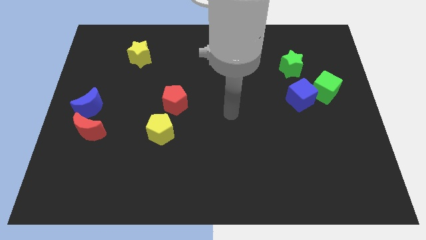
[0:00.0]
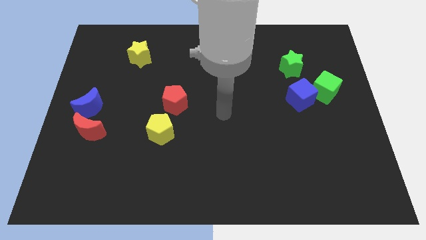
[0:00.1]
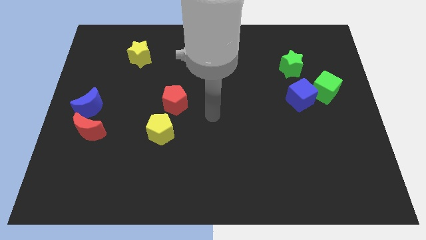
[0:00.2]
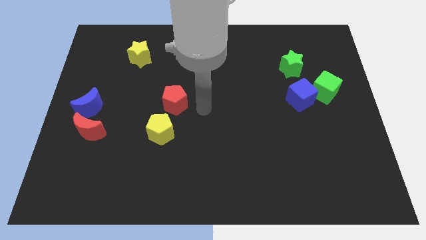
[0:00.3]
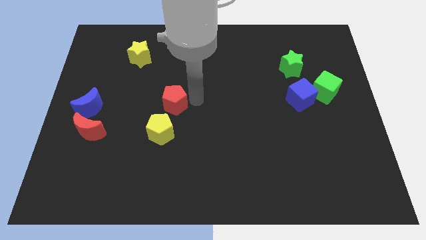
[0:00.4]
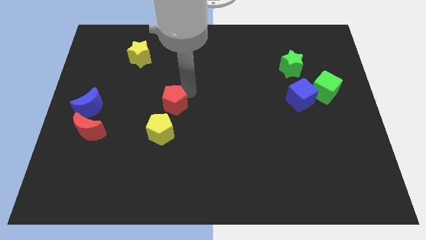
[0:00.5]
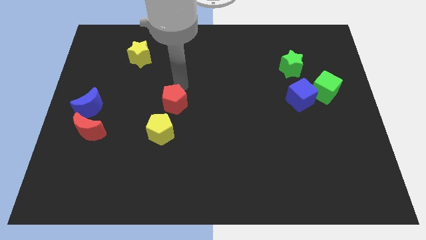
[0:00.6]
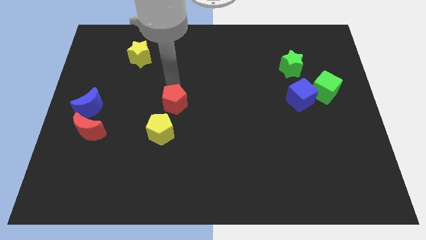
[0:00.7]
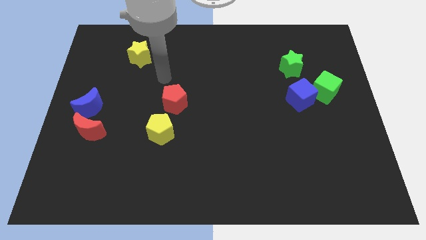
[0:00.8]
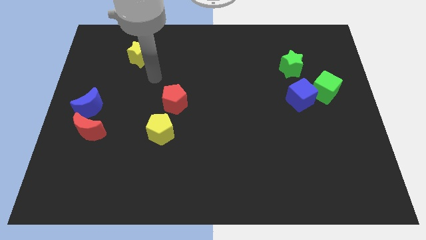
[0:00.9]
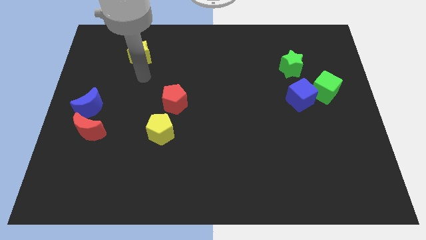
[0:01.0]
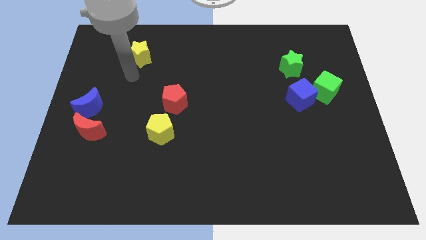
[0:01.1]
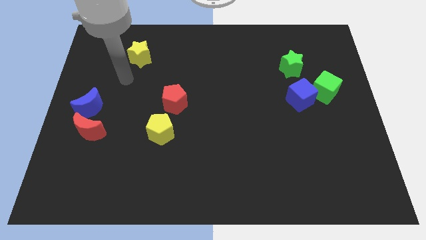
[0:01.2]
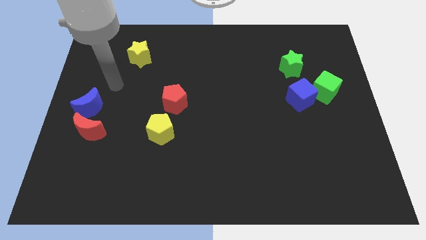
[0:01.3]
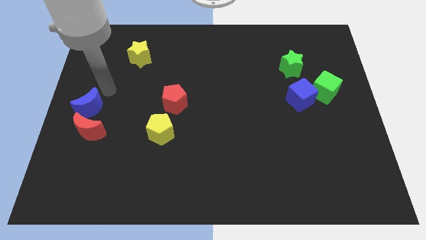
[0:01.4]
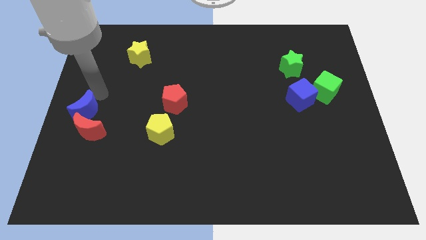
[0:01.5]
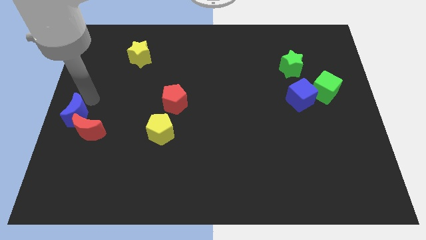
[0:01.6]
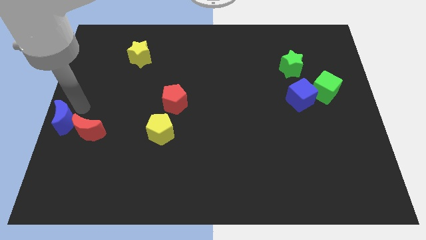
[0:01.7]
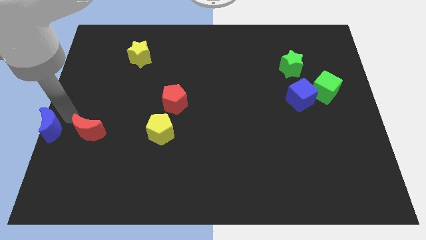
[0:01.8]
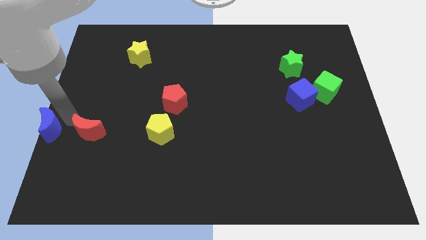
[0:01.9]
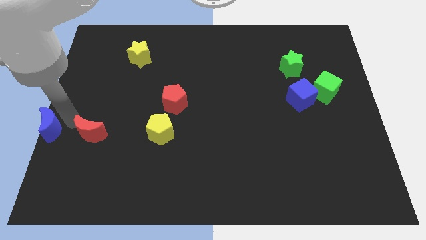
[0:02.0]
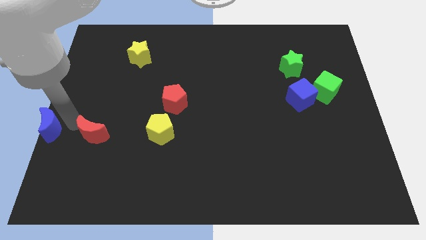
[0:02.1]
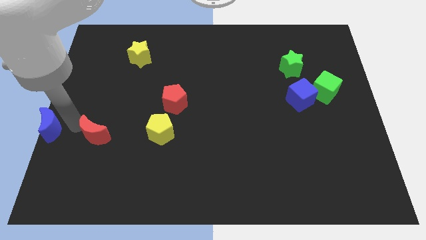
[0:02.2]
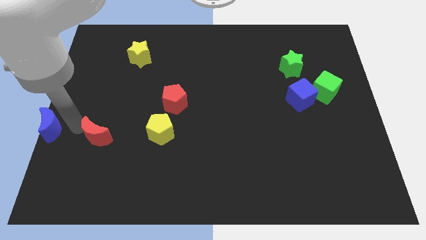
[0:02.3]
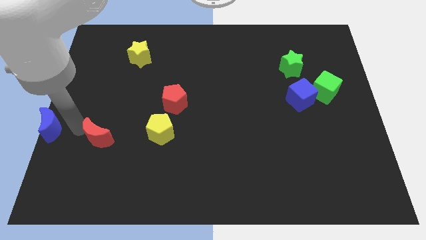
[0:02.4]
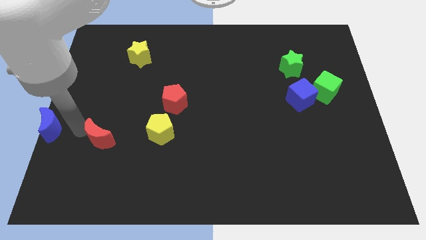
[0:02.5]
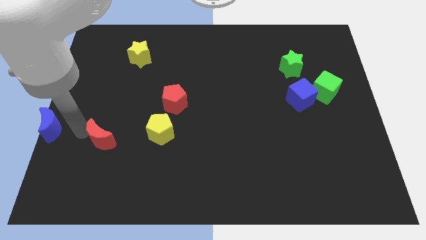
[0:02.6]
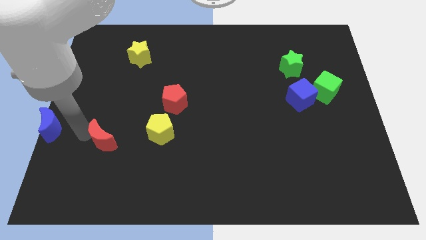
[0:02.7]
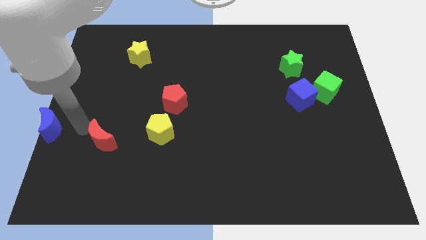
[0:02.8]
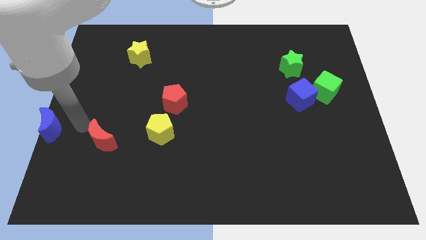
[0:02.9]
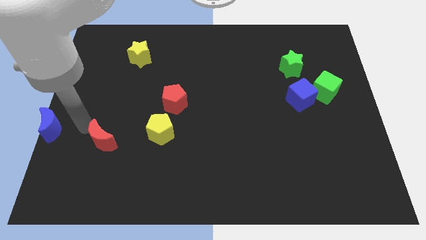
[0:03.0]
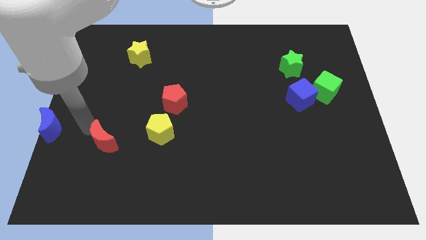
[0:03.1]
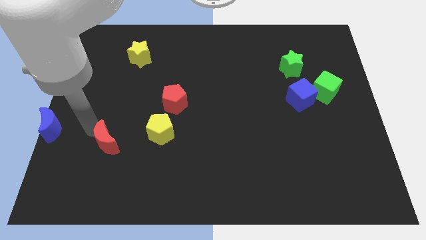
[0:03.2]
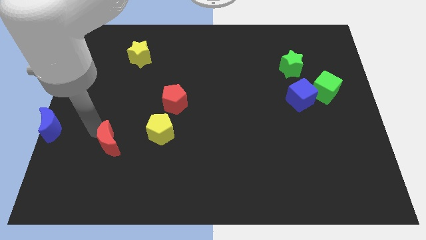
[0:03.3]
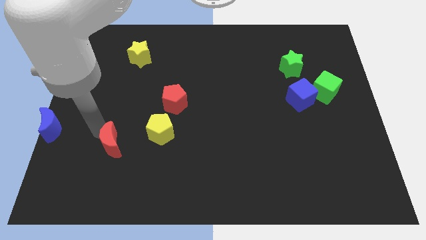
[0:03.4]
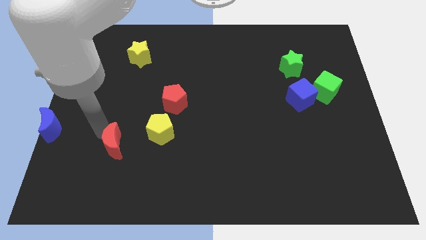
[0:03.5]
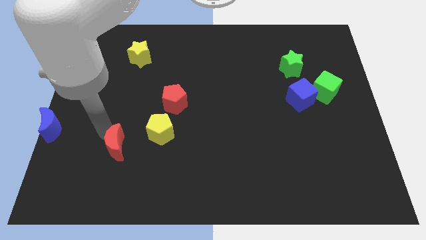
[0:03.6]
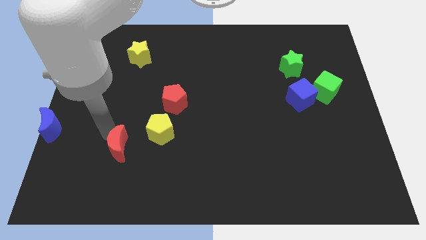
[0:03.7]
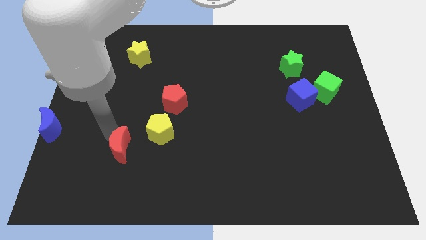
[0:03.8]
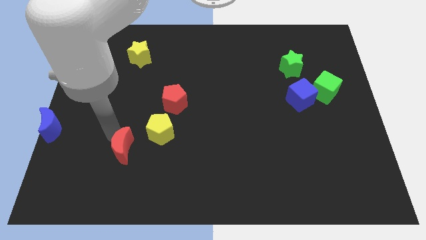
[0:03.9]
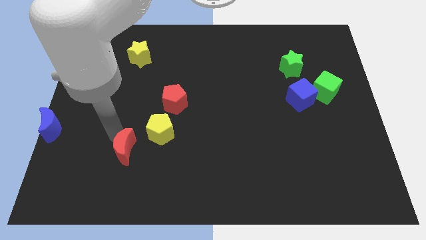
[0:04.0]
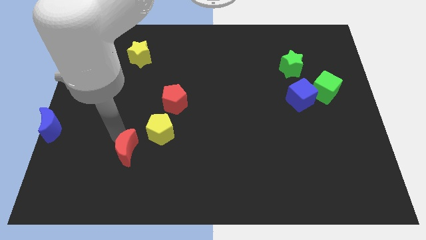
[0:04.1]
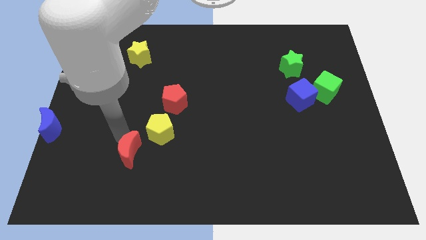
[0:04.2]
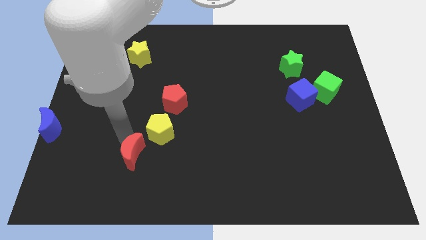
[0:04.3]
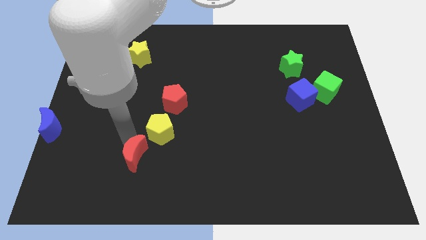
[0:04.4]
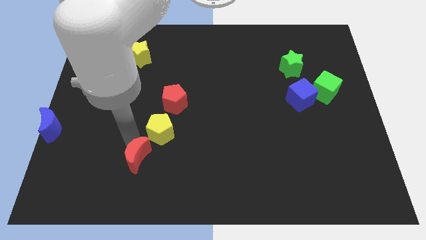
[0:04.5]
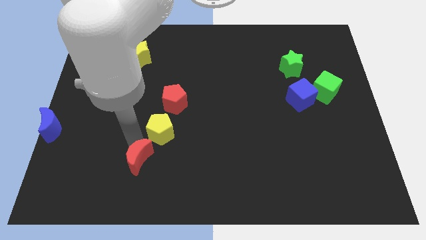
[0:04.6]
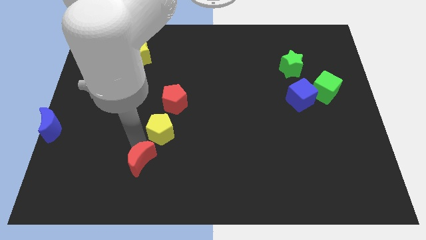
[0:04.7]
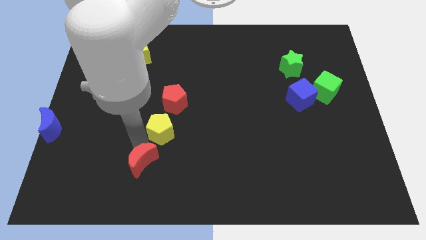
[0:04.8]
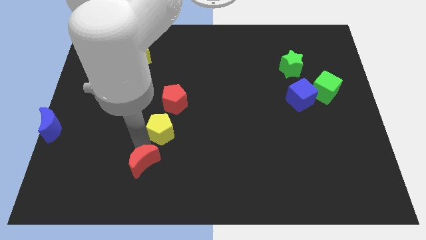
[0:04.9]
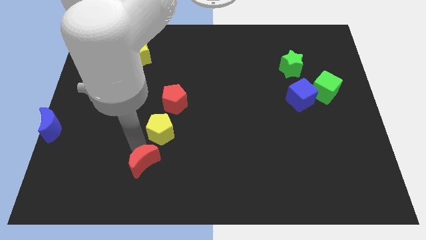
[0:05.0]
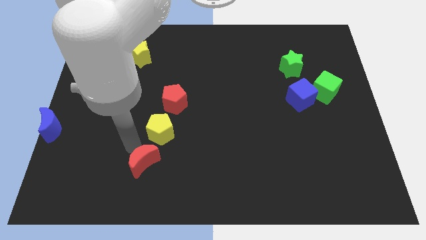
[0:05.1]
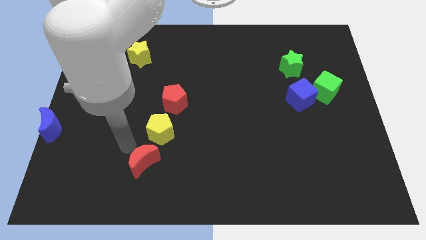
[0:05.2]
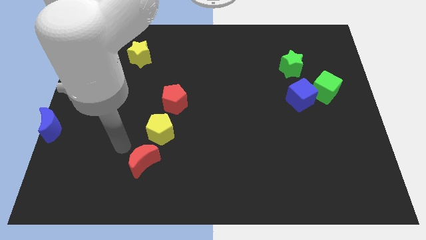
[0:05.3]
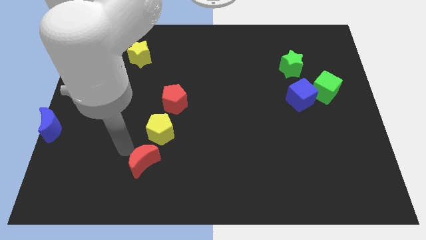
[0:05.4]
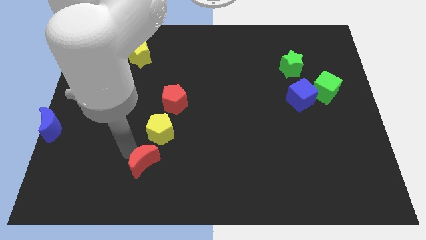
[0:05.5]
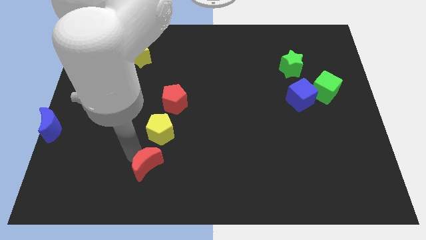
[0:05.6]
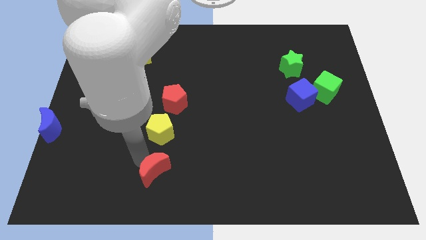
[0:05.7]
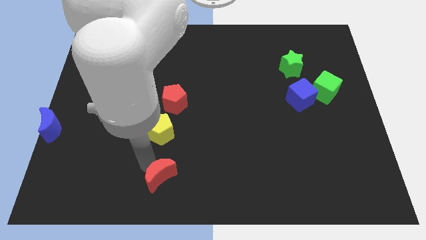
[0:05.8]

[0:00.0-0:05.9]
push the red moon to the bottom side
